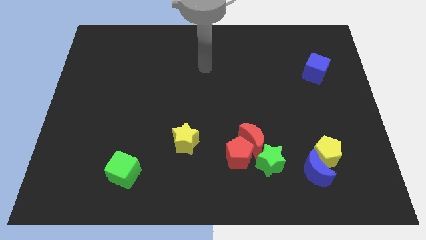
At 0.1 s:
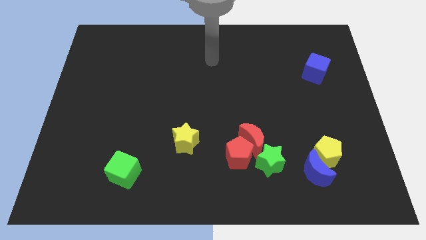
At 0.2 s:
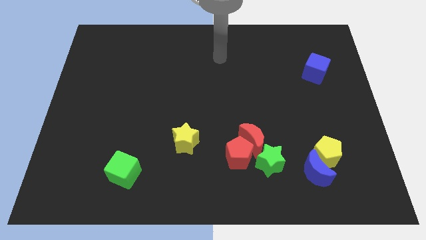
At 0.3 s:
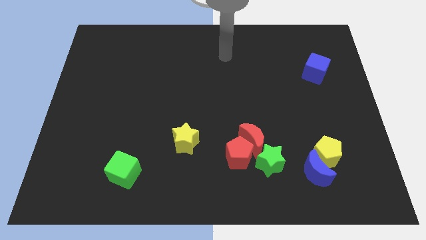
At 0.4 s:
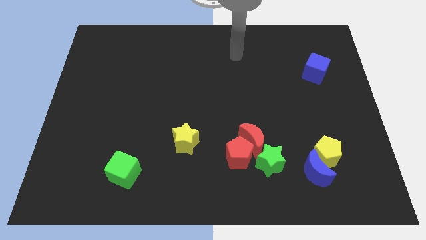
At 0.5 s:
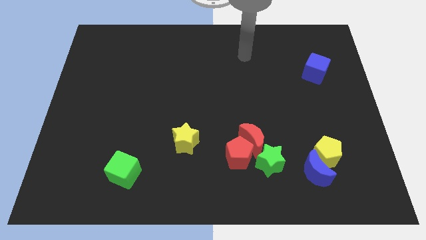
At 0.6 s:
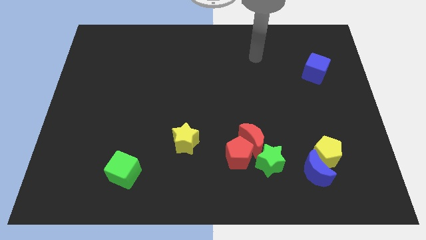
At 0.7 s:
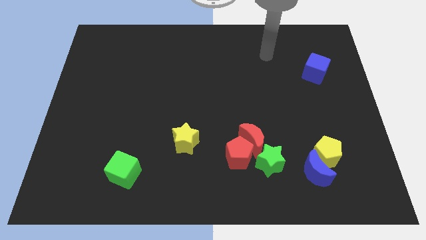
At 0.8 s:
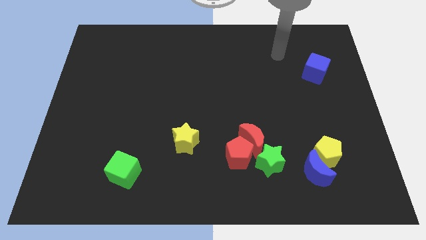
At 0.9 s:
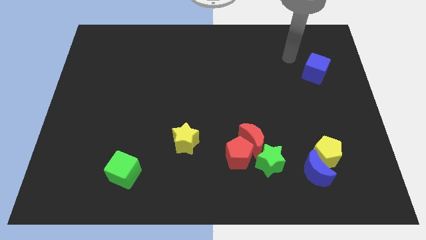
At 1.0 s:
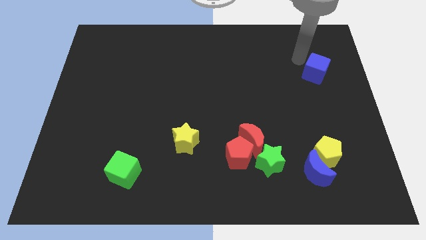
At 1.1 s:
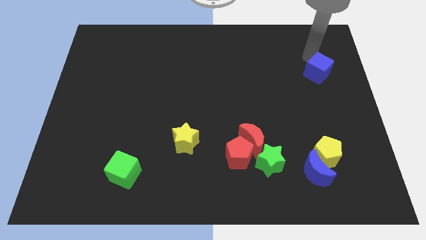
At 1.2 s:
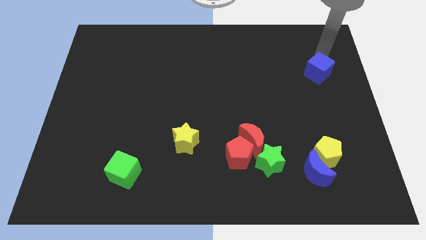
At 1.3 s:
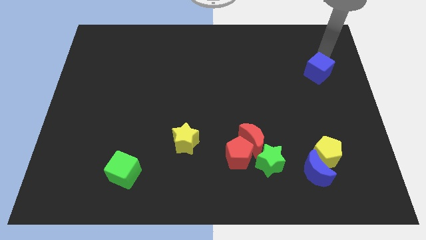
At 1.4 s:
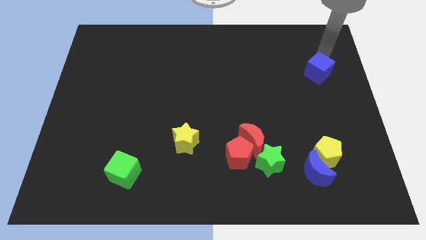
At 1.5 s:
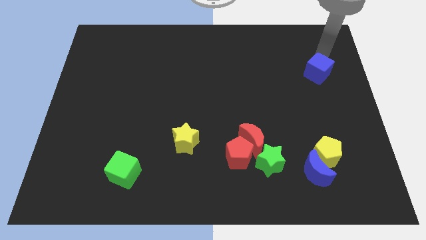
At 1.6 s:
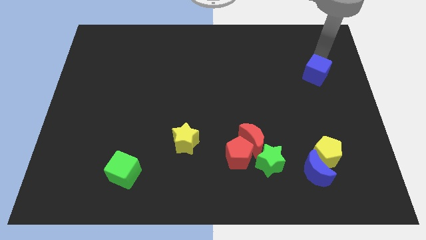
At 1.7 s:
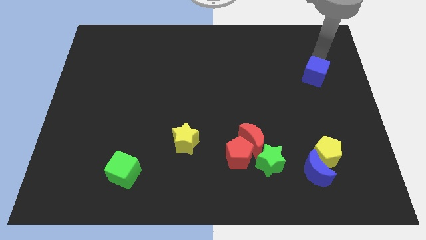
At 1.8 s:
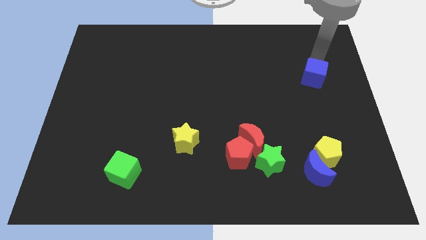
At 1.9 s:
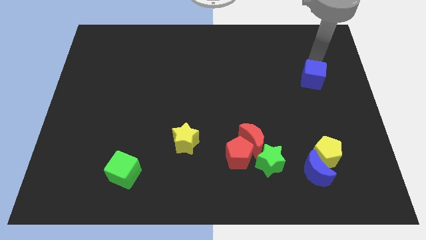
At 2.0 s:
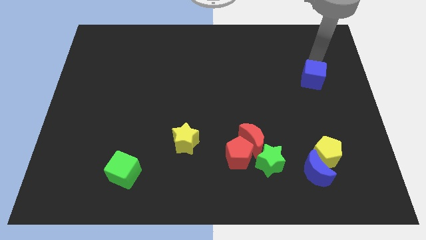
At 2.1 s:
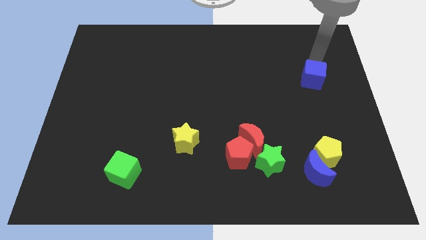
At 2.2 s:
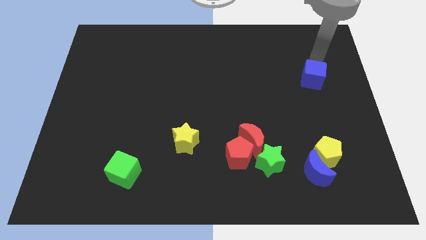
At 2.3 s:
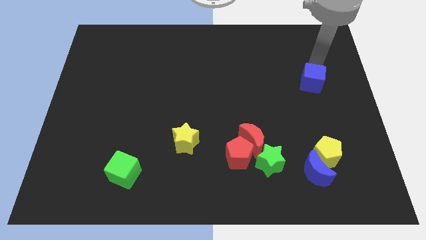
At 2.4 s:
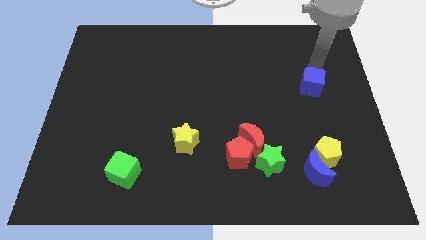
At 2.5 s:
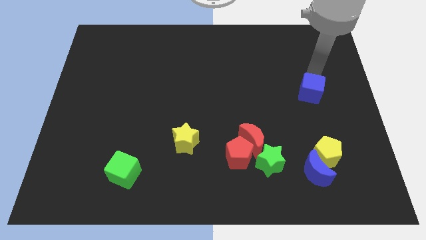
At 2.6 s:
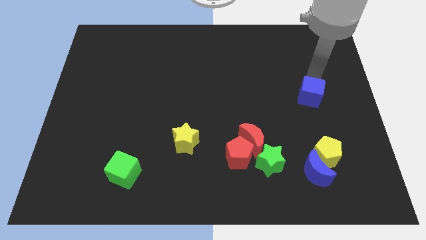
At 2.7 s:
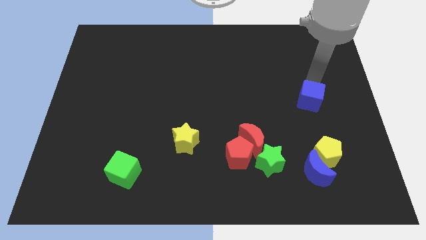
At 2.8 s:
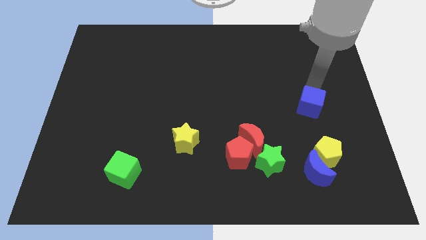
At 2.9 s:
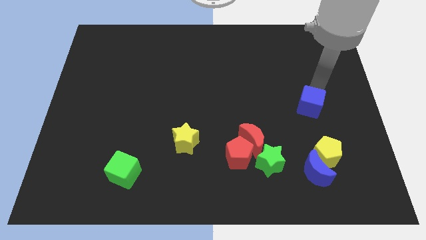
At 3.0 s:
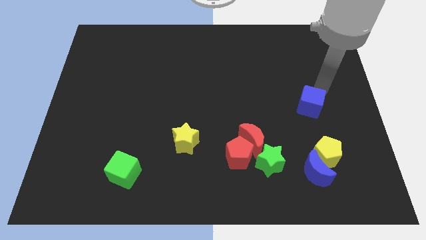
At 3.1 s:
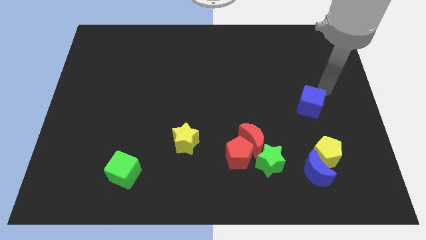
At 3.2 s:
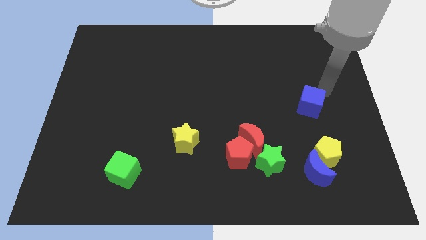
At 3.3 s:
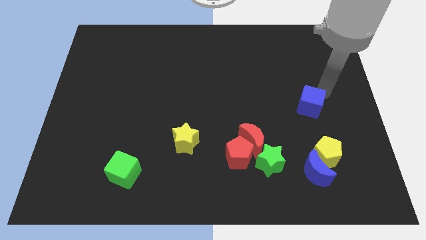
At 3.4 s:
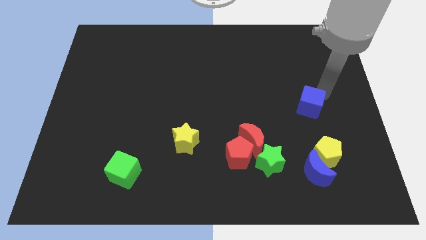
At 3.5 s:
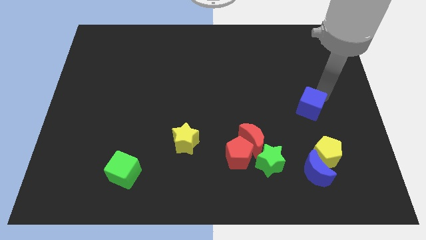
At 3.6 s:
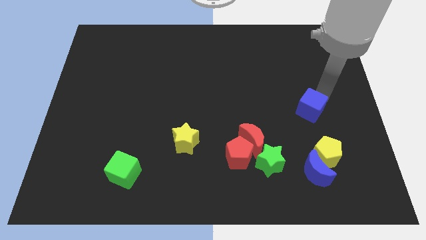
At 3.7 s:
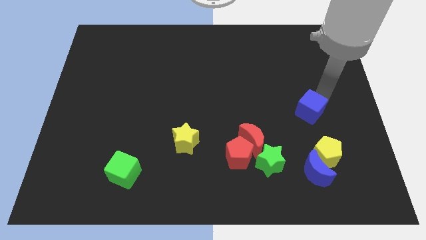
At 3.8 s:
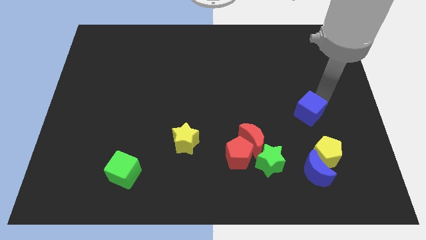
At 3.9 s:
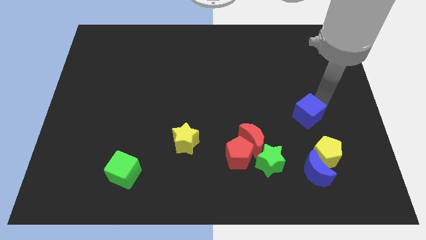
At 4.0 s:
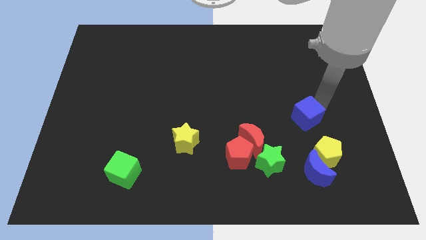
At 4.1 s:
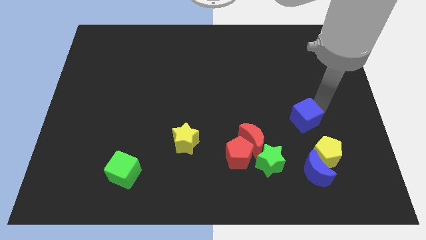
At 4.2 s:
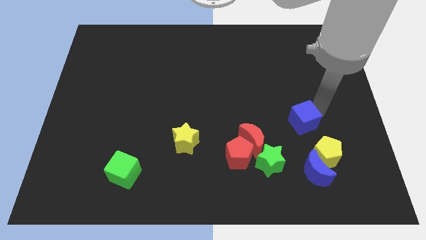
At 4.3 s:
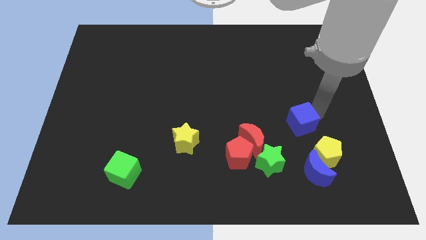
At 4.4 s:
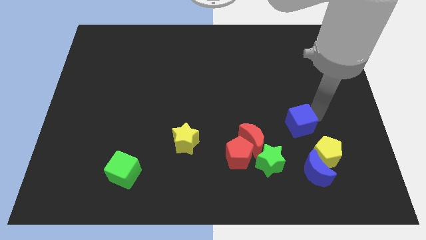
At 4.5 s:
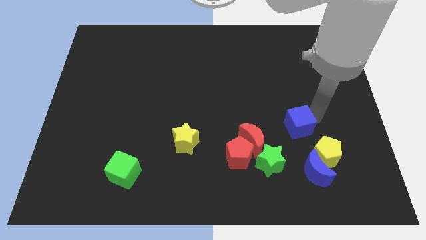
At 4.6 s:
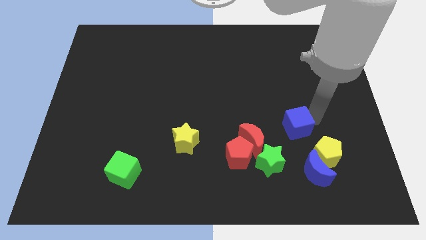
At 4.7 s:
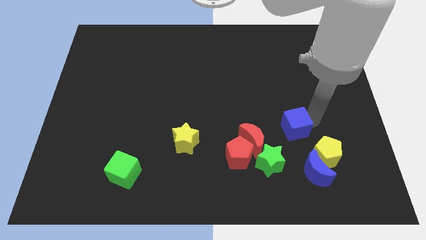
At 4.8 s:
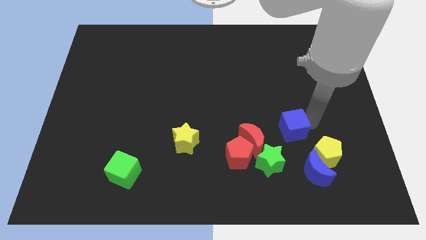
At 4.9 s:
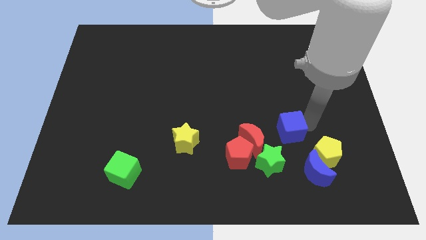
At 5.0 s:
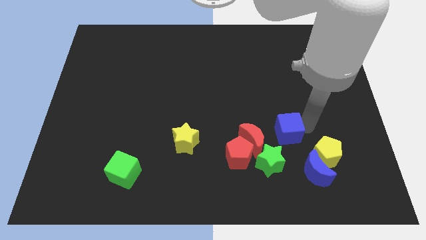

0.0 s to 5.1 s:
put the blue cube to the top left of the blue moon

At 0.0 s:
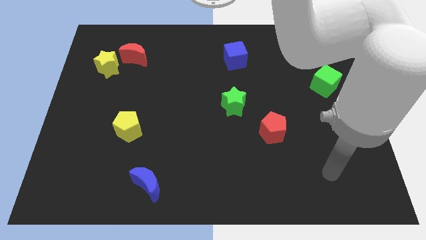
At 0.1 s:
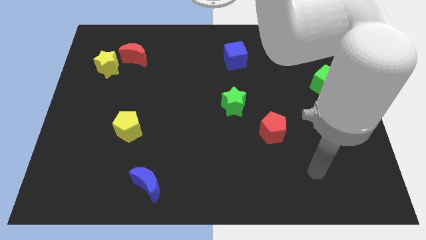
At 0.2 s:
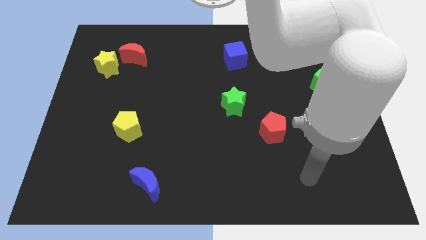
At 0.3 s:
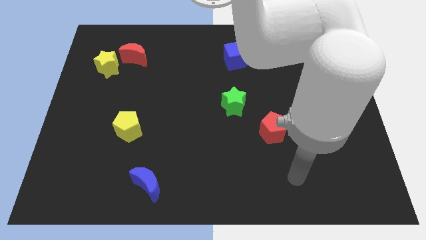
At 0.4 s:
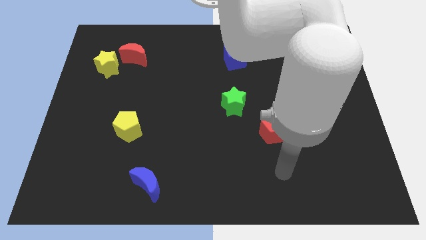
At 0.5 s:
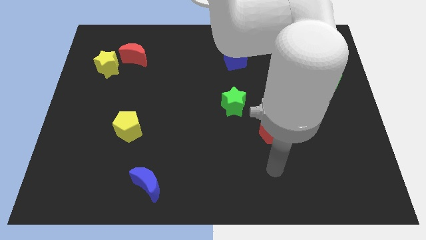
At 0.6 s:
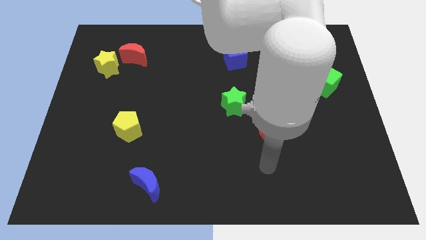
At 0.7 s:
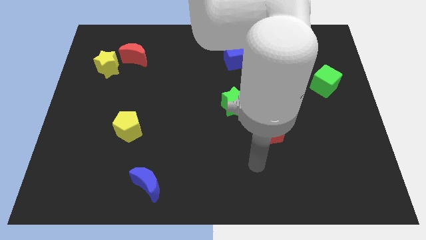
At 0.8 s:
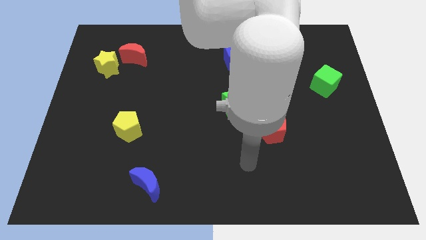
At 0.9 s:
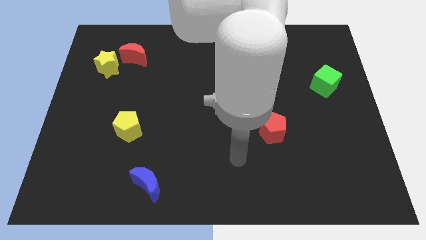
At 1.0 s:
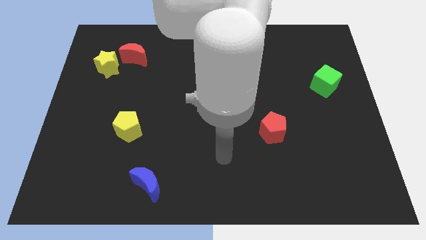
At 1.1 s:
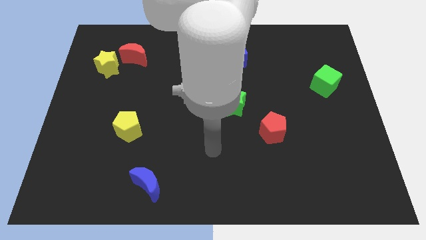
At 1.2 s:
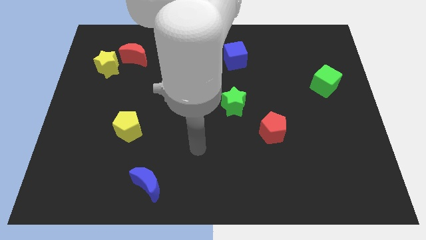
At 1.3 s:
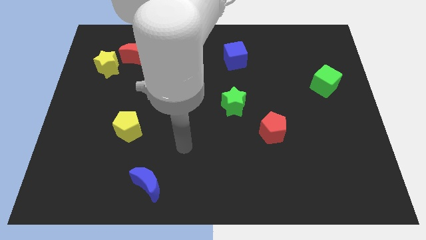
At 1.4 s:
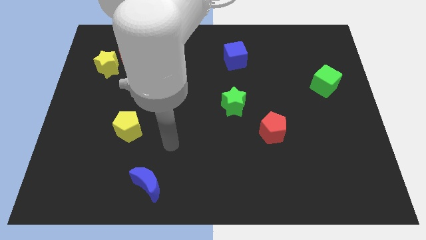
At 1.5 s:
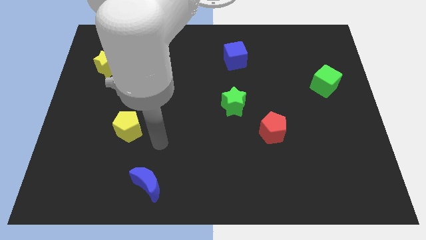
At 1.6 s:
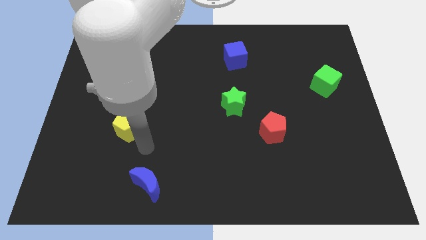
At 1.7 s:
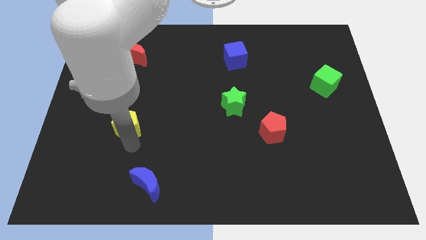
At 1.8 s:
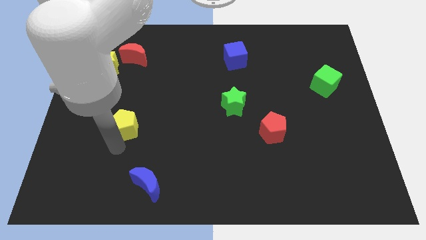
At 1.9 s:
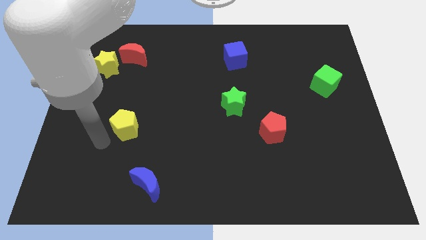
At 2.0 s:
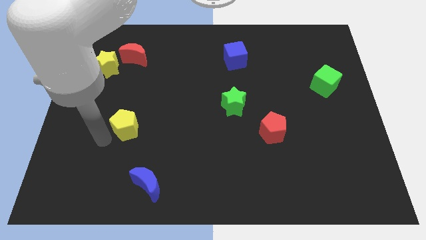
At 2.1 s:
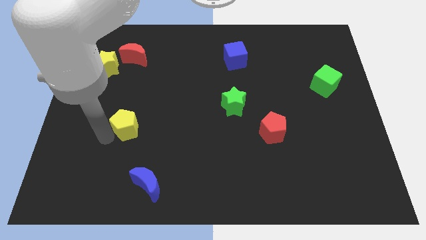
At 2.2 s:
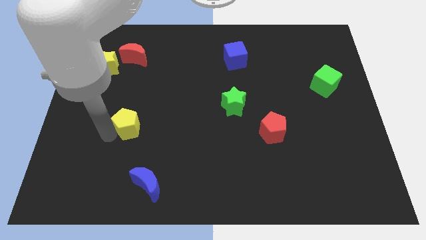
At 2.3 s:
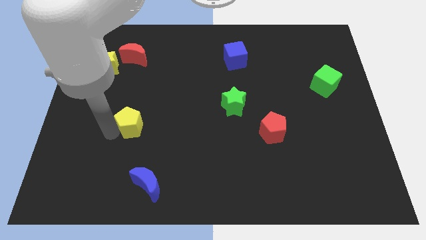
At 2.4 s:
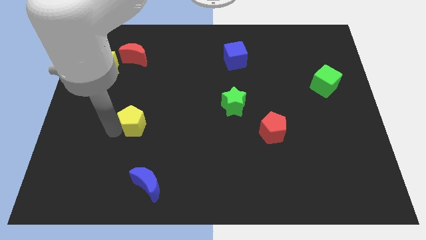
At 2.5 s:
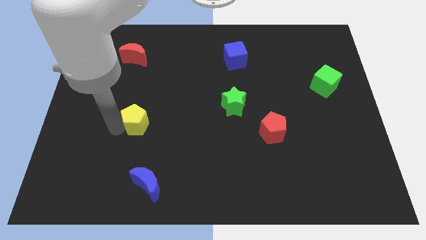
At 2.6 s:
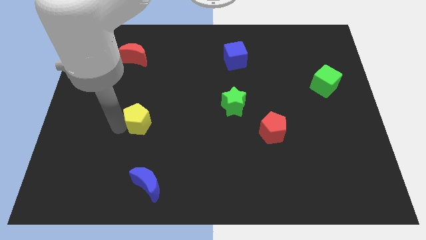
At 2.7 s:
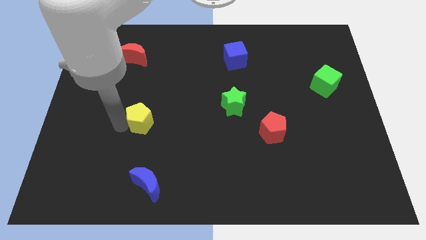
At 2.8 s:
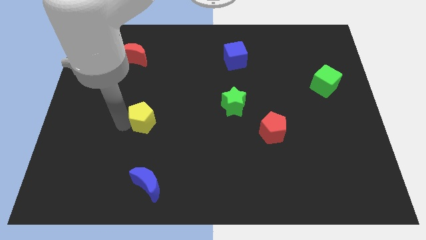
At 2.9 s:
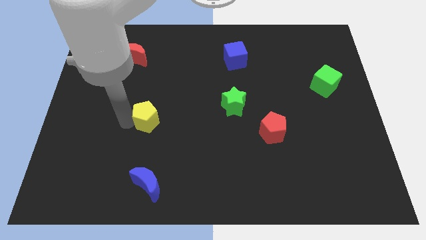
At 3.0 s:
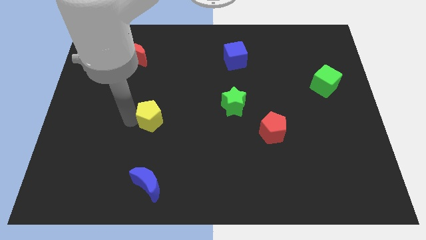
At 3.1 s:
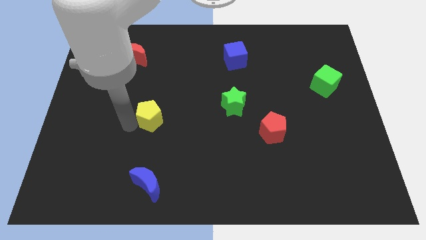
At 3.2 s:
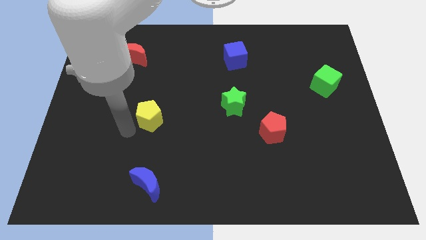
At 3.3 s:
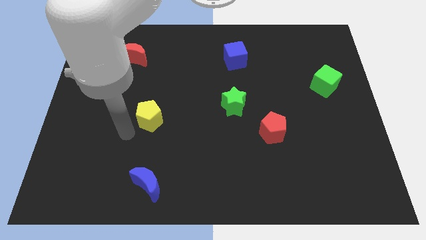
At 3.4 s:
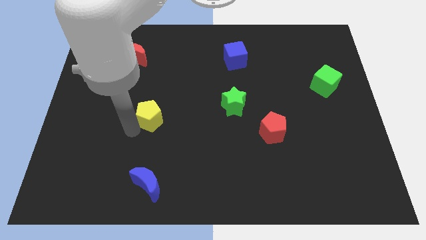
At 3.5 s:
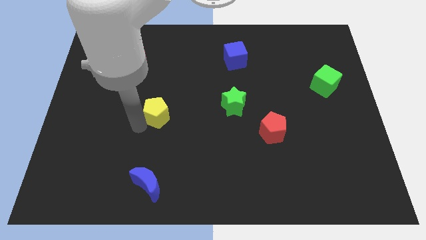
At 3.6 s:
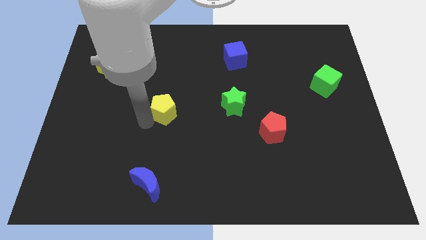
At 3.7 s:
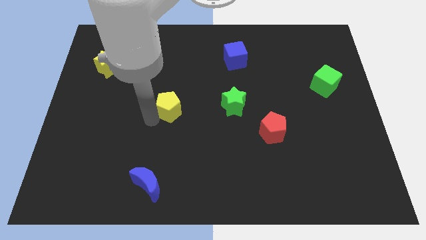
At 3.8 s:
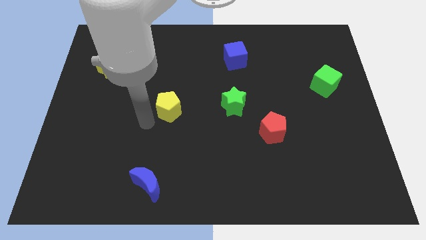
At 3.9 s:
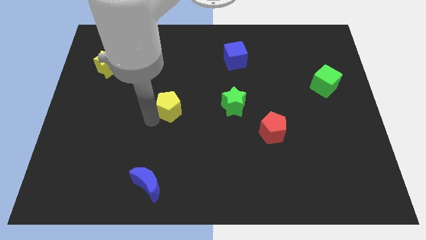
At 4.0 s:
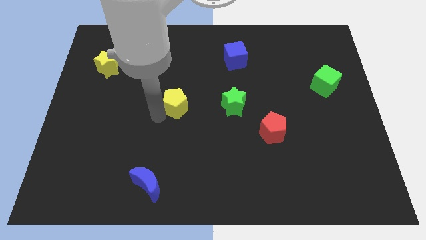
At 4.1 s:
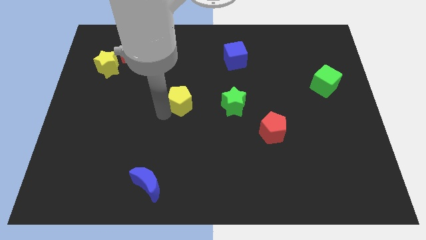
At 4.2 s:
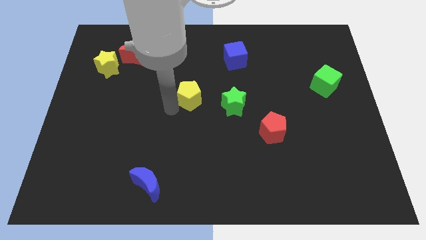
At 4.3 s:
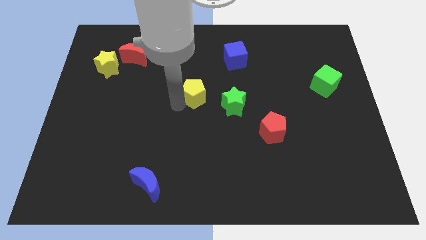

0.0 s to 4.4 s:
put the yellow pentagon diagonally up and to the left of the green star
